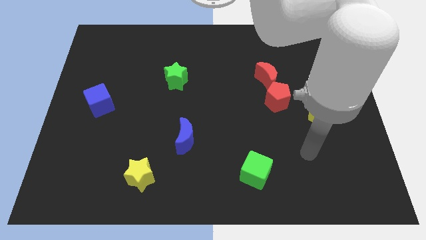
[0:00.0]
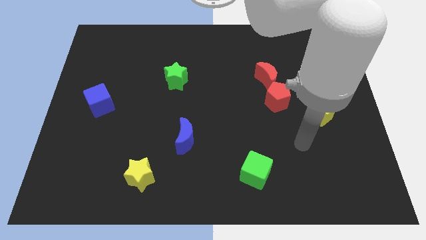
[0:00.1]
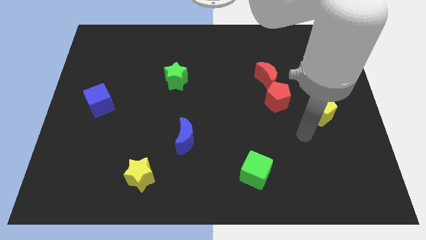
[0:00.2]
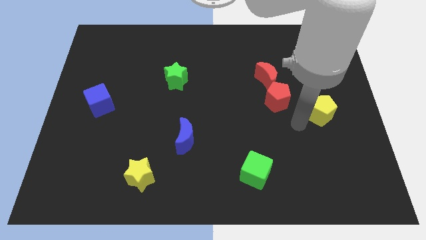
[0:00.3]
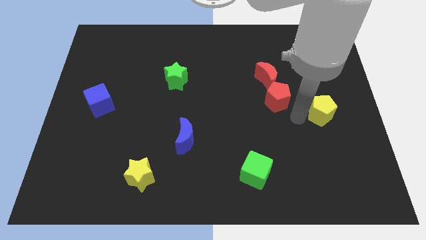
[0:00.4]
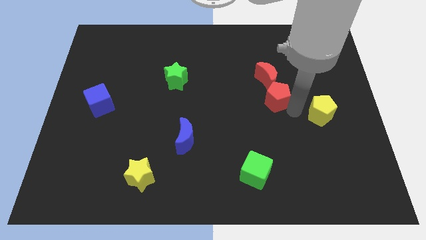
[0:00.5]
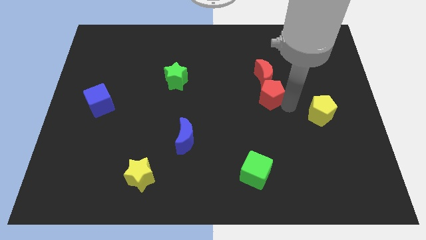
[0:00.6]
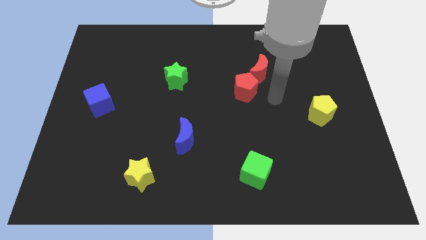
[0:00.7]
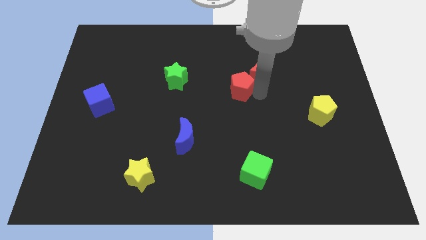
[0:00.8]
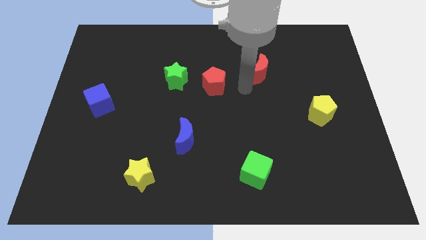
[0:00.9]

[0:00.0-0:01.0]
pull the red moon apart from the red pentagon

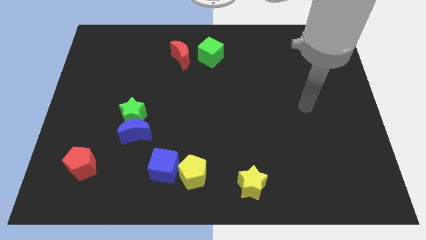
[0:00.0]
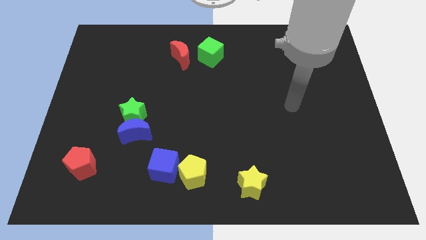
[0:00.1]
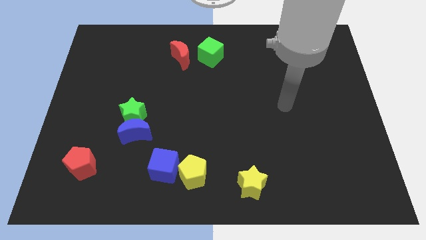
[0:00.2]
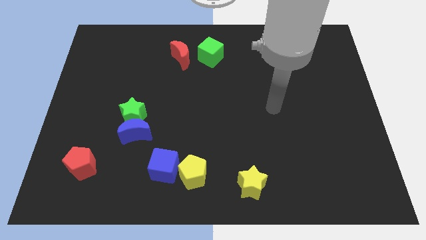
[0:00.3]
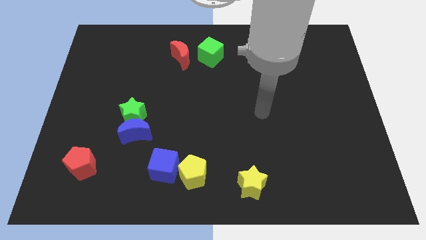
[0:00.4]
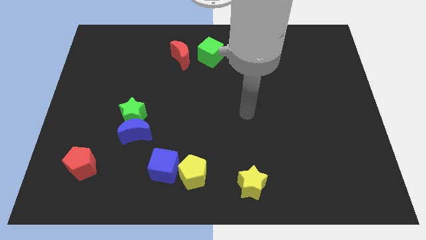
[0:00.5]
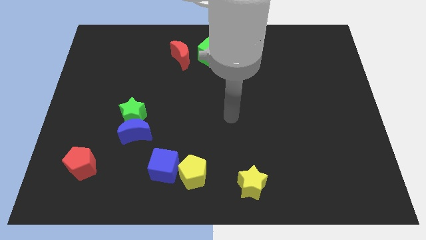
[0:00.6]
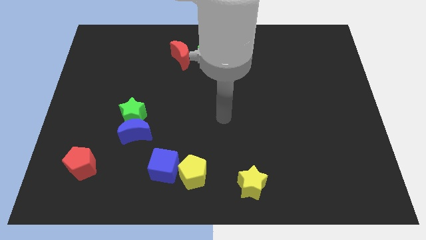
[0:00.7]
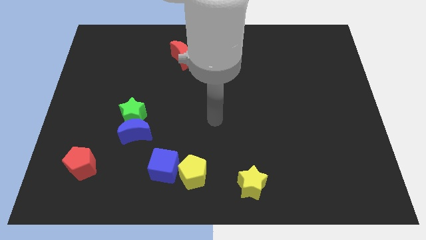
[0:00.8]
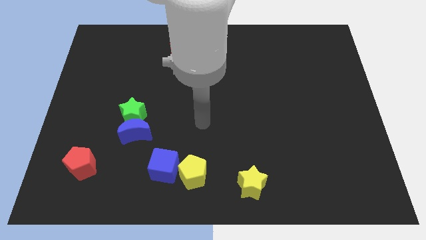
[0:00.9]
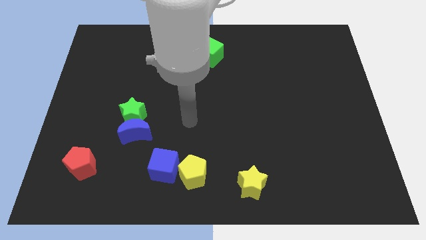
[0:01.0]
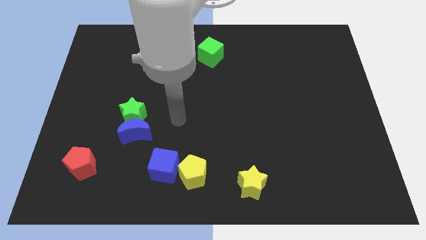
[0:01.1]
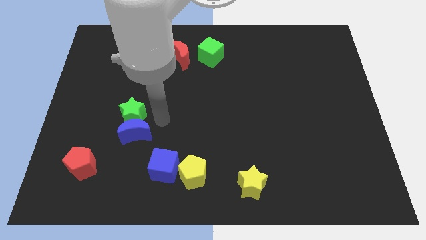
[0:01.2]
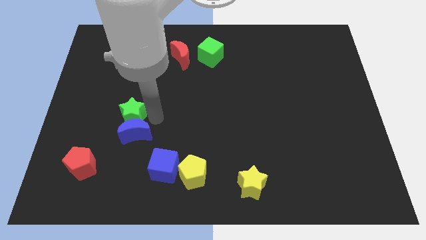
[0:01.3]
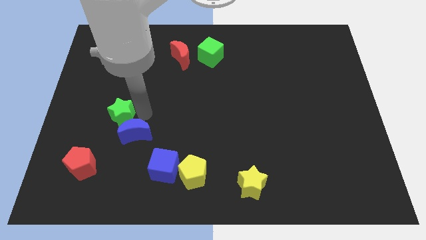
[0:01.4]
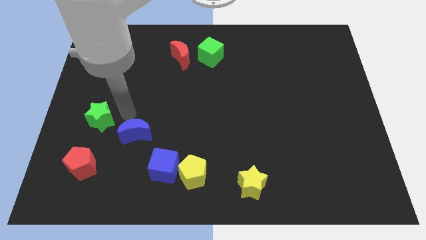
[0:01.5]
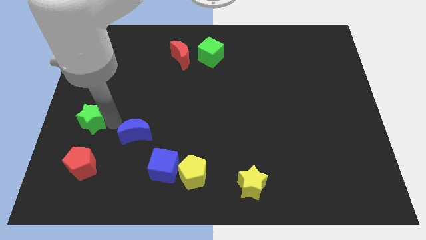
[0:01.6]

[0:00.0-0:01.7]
separate the blue moon from the green star

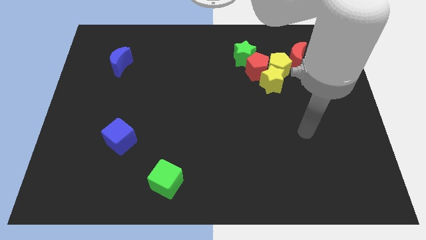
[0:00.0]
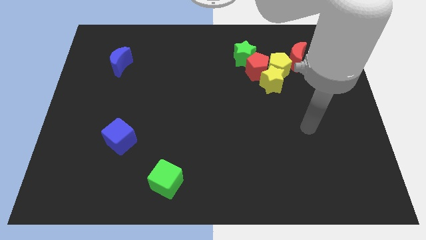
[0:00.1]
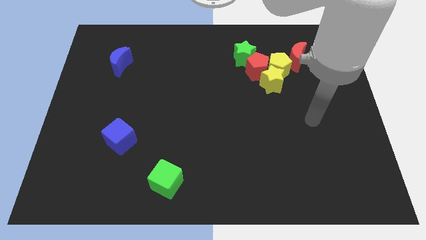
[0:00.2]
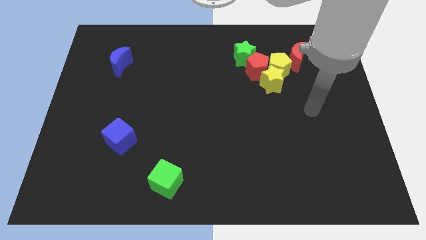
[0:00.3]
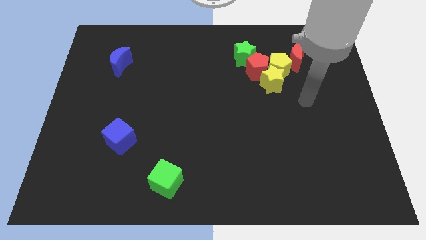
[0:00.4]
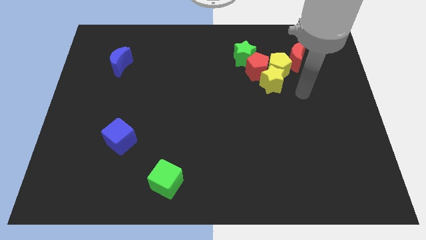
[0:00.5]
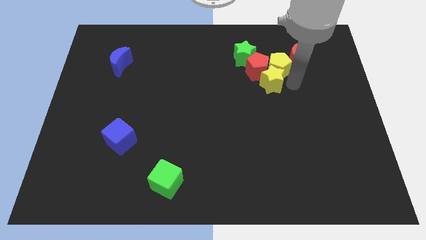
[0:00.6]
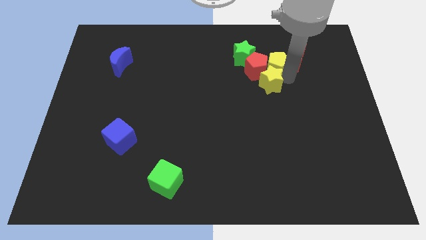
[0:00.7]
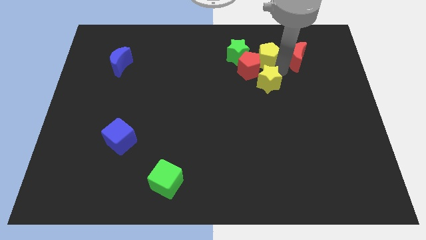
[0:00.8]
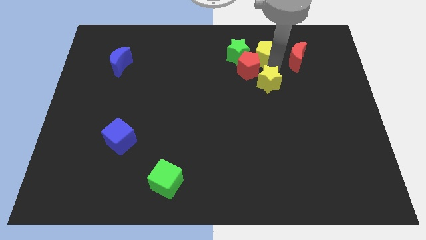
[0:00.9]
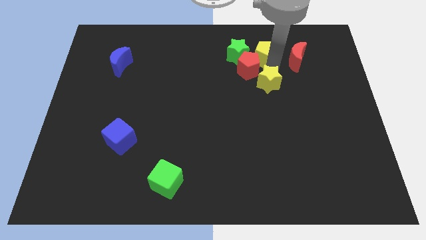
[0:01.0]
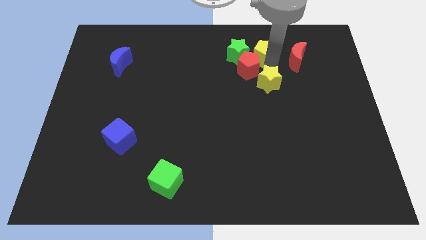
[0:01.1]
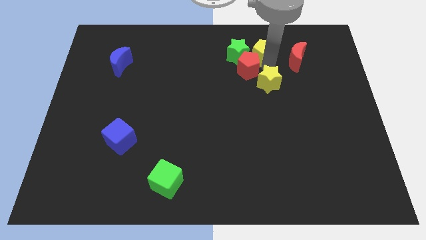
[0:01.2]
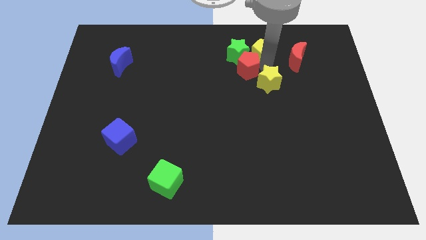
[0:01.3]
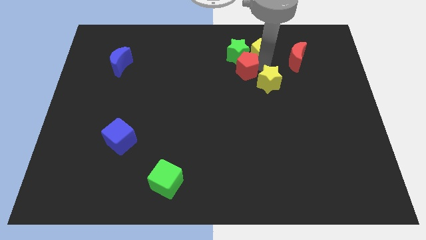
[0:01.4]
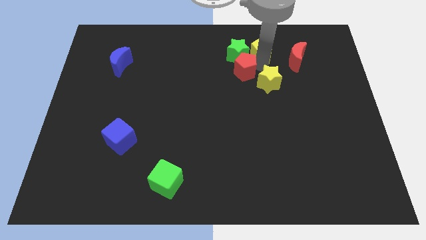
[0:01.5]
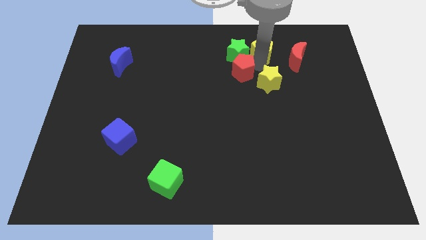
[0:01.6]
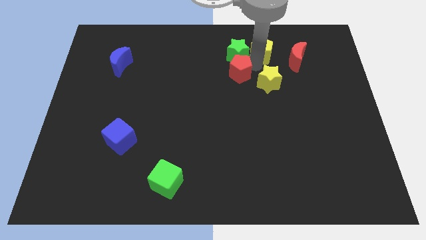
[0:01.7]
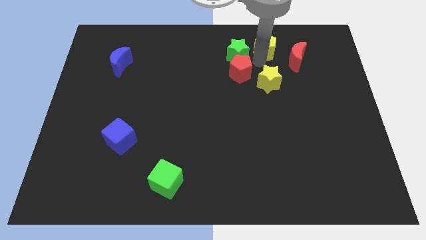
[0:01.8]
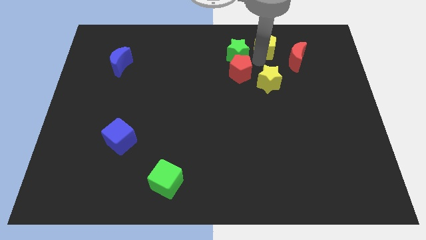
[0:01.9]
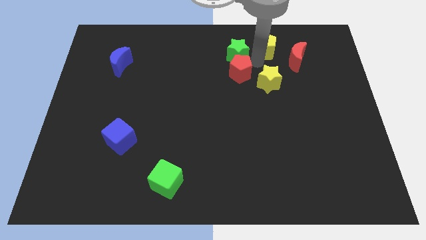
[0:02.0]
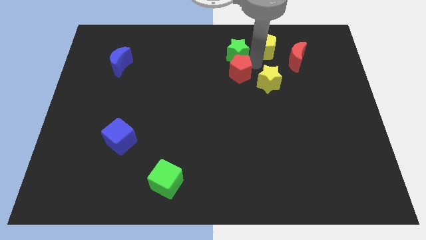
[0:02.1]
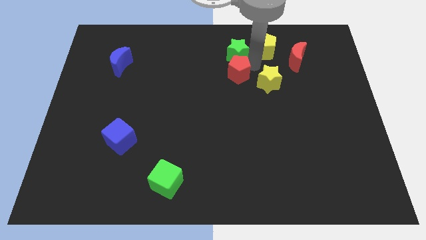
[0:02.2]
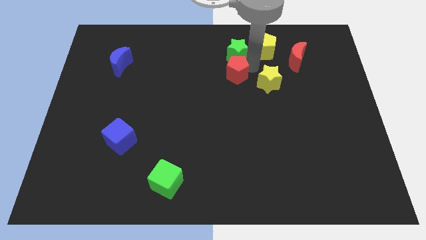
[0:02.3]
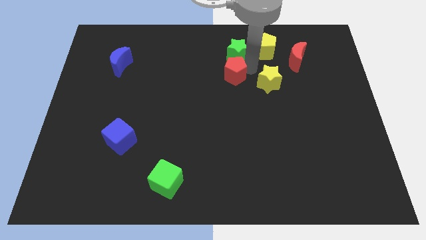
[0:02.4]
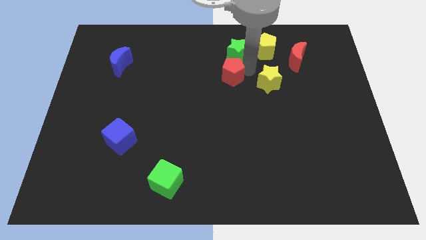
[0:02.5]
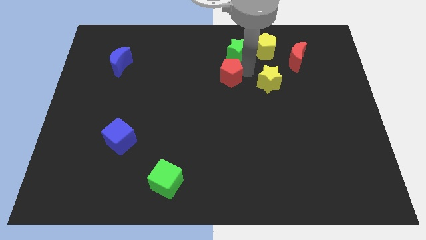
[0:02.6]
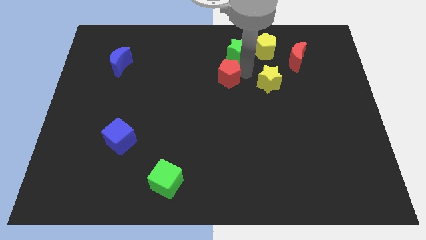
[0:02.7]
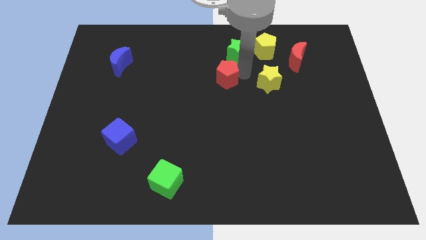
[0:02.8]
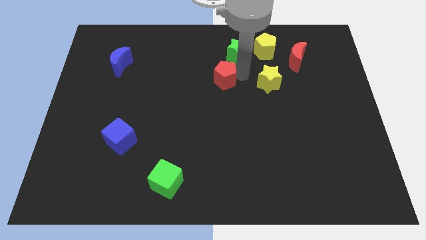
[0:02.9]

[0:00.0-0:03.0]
pull the red pentagon apart from the green star, yellow pentagon, and yellow star

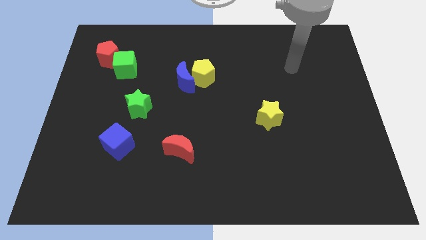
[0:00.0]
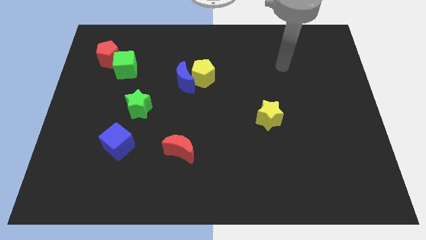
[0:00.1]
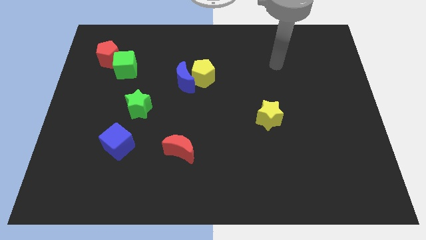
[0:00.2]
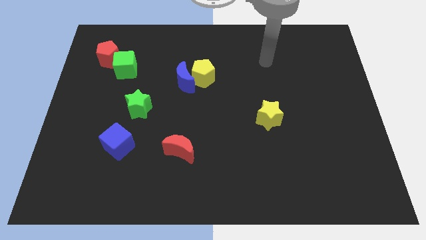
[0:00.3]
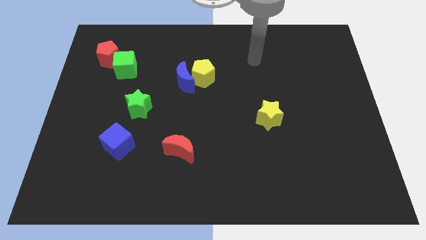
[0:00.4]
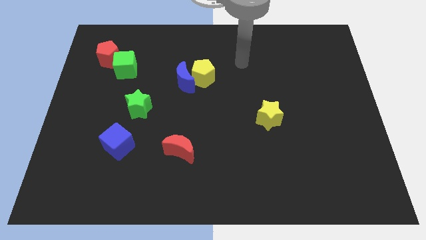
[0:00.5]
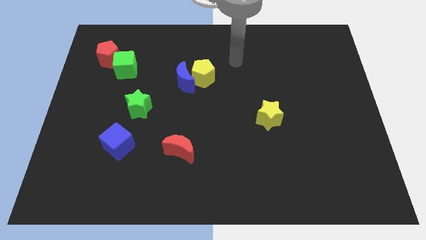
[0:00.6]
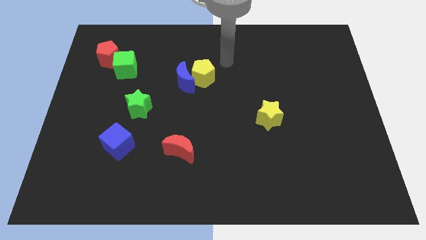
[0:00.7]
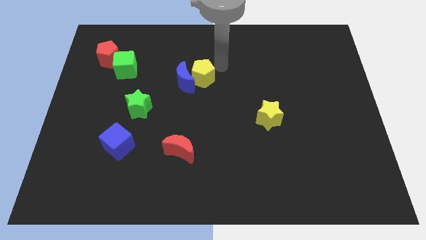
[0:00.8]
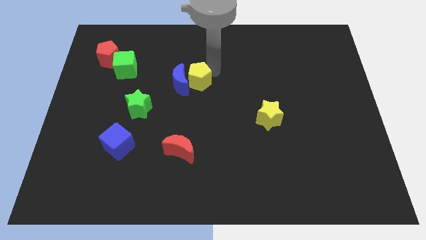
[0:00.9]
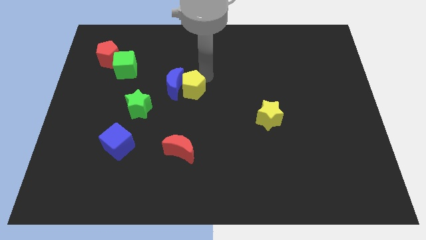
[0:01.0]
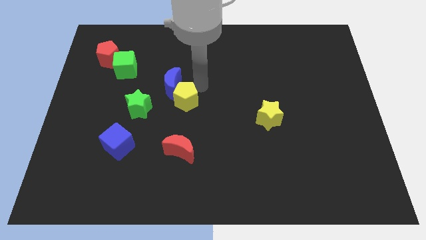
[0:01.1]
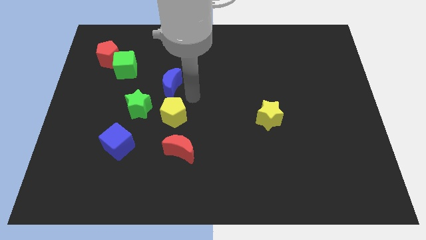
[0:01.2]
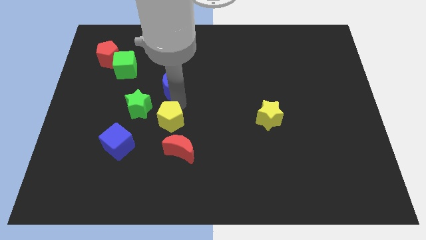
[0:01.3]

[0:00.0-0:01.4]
separate the blue moon from the yellow pentagon

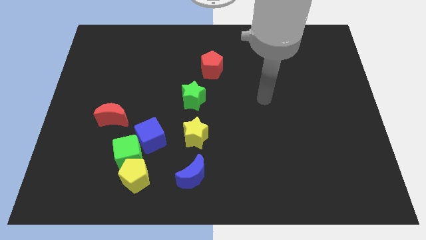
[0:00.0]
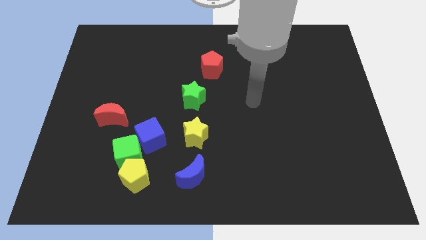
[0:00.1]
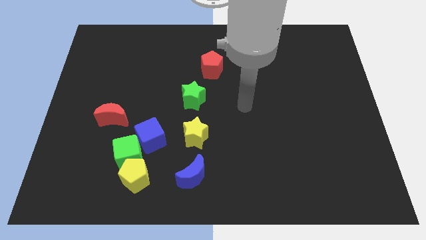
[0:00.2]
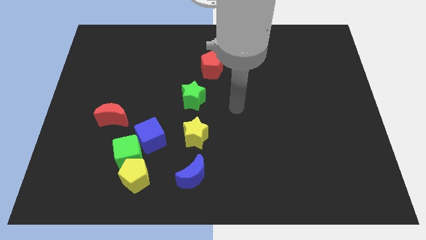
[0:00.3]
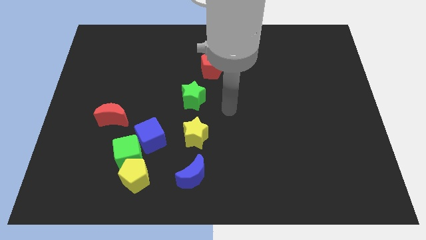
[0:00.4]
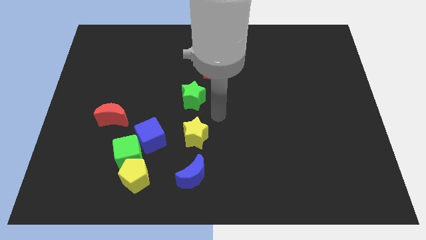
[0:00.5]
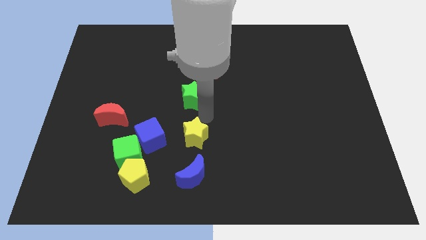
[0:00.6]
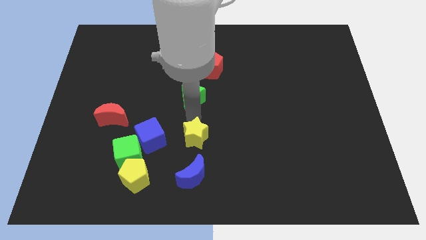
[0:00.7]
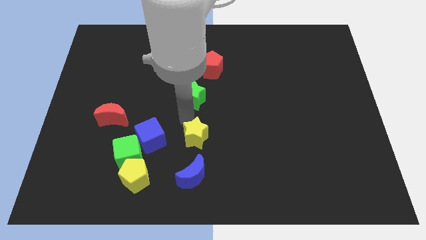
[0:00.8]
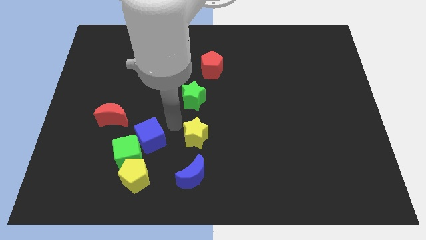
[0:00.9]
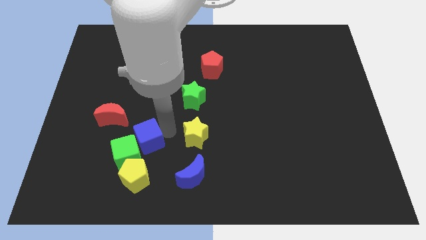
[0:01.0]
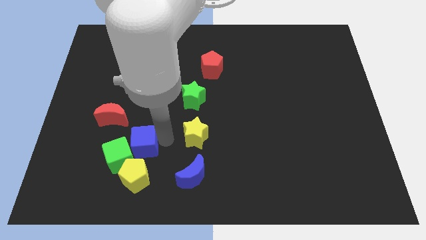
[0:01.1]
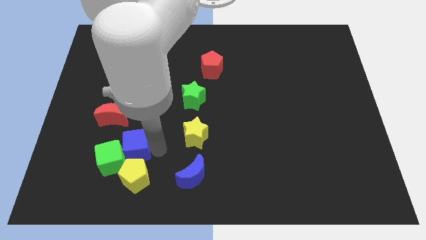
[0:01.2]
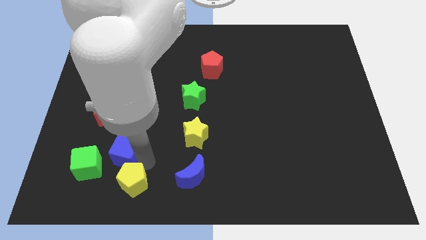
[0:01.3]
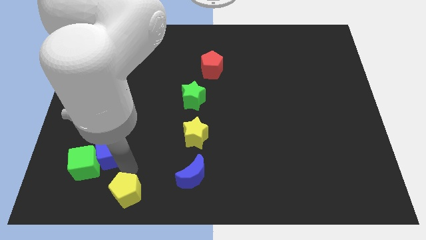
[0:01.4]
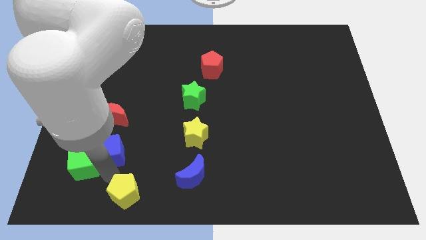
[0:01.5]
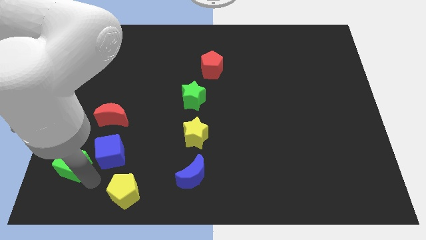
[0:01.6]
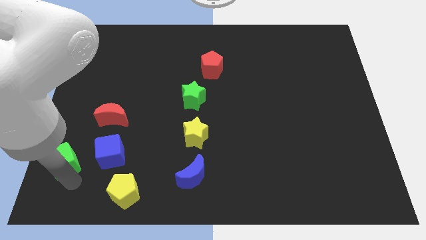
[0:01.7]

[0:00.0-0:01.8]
move the green cube away from the yellow pentagon and blue cube

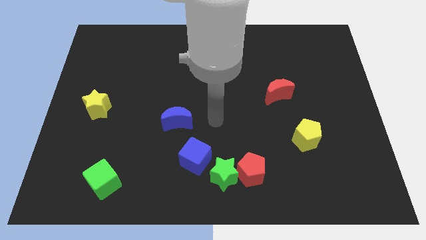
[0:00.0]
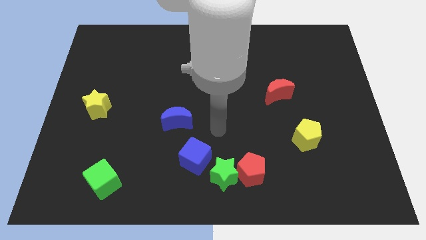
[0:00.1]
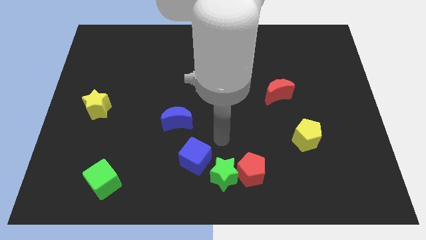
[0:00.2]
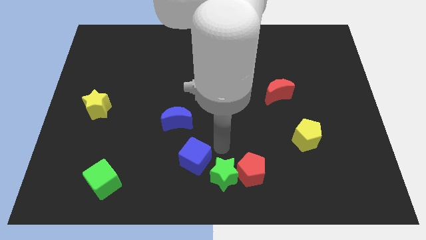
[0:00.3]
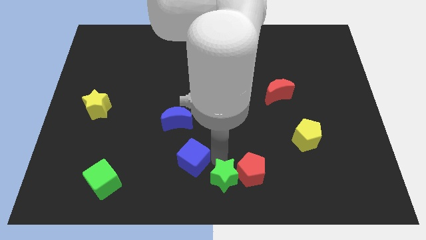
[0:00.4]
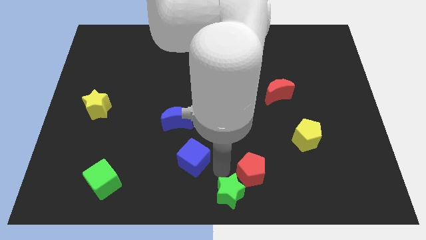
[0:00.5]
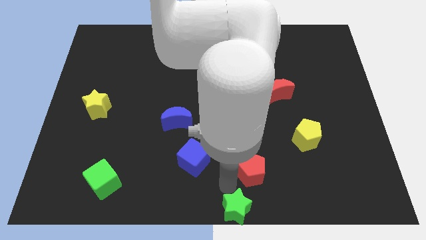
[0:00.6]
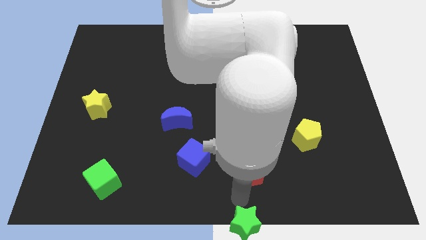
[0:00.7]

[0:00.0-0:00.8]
move the red pentagon away from the green star
